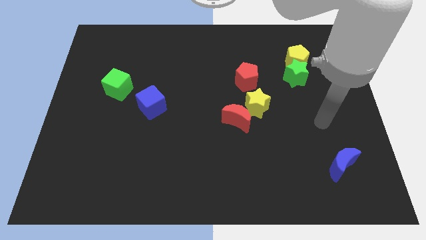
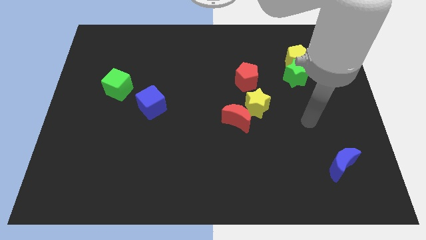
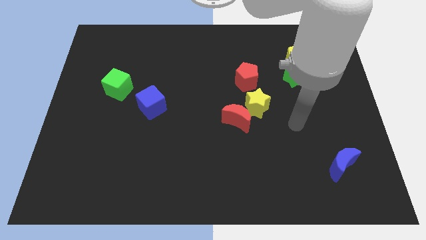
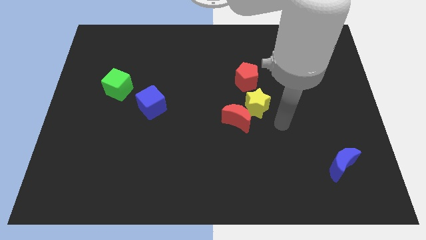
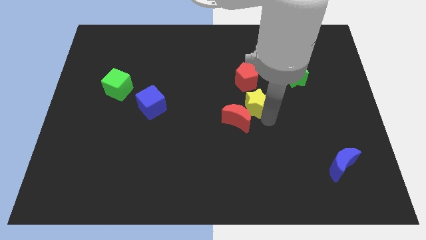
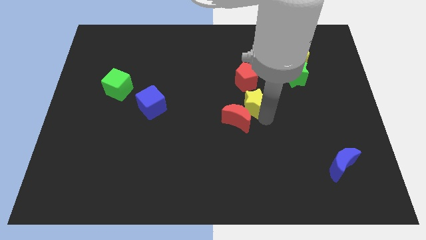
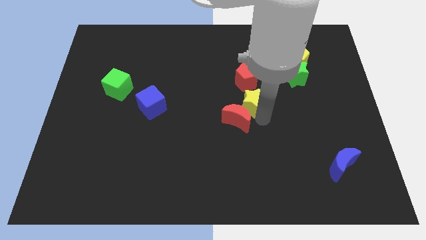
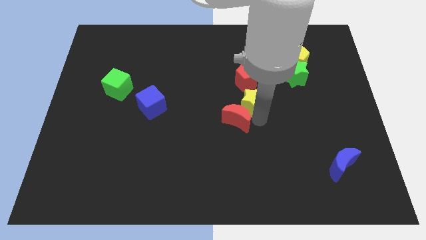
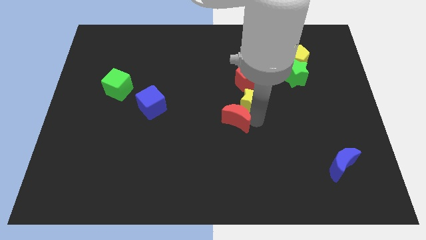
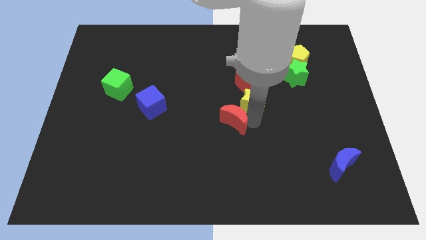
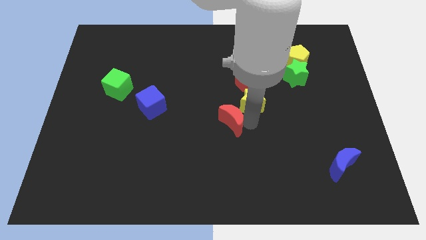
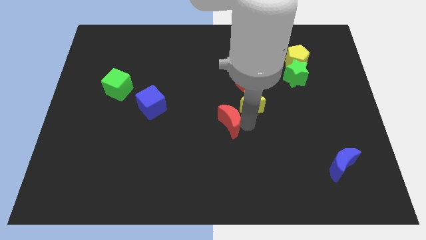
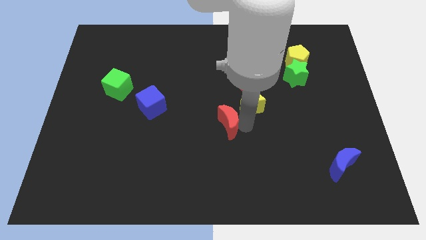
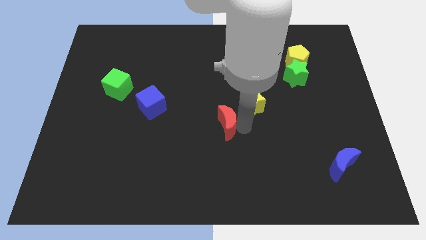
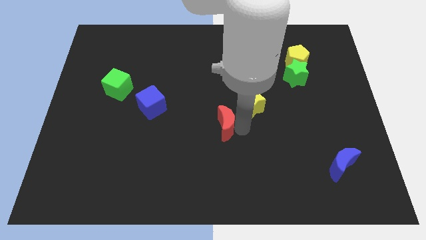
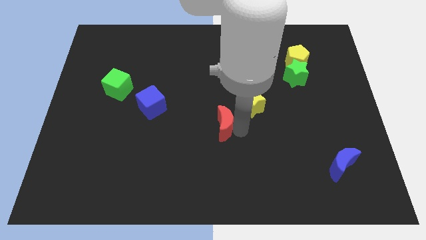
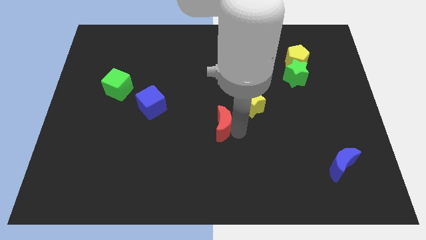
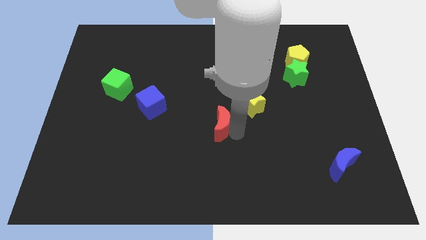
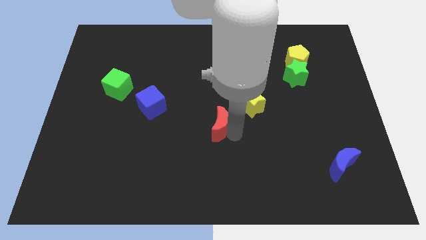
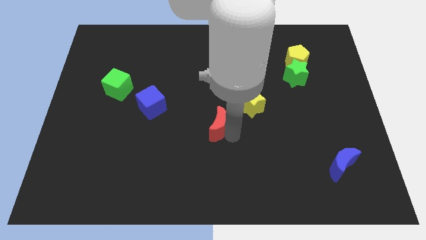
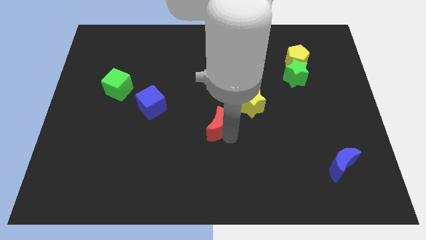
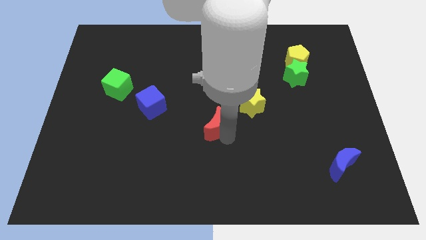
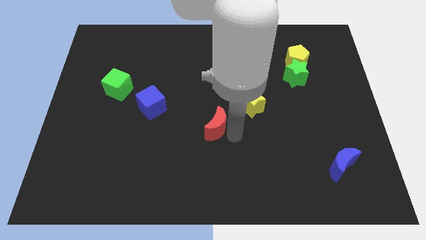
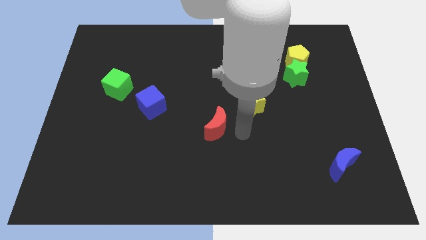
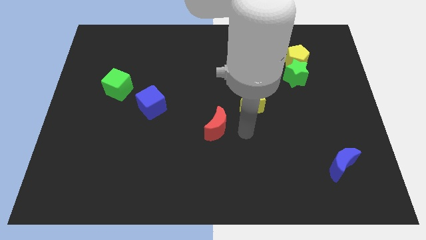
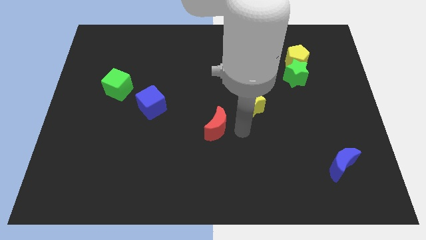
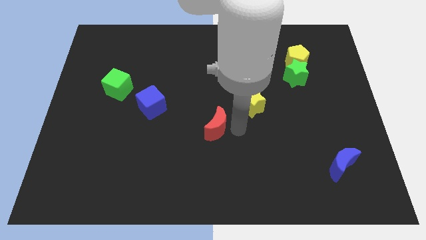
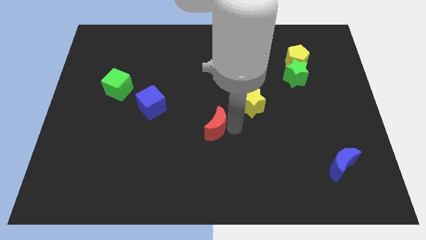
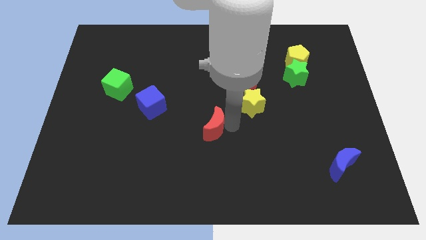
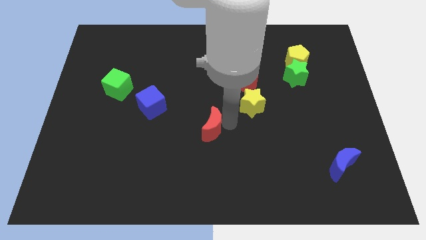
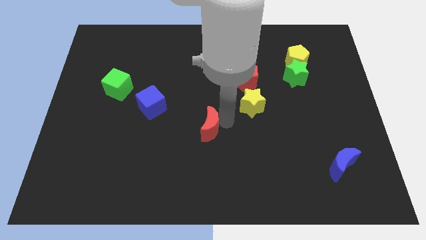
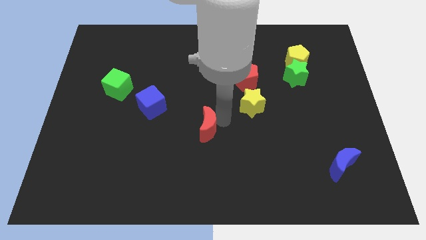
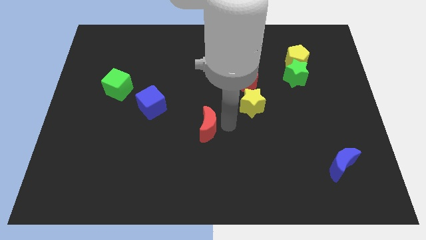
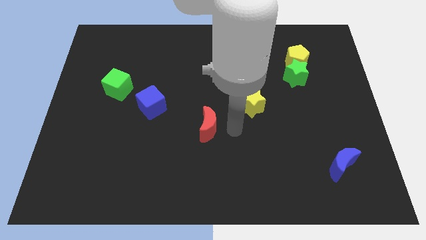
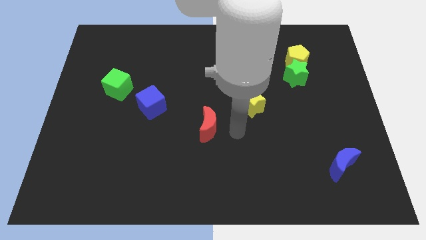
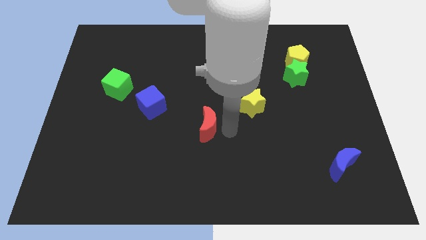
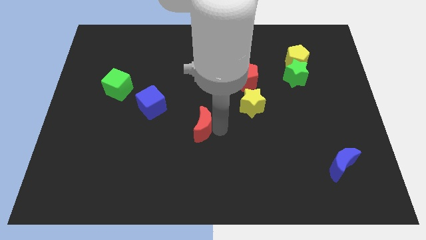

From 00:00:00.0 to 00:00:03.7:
push the red moon a little bit to the left

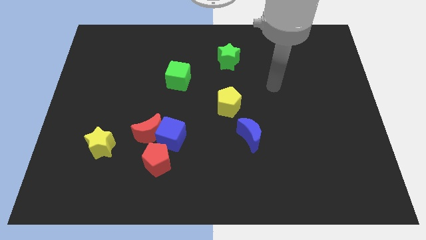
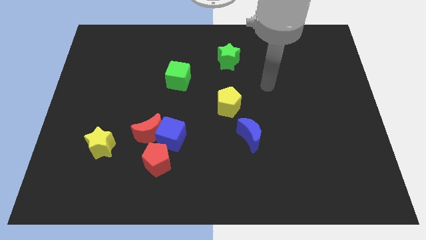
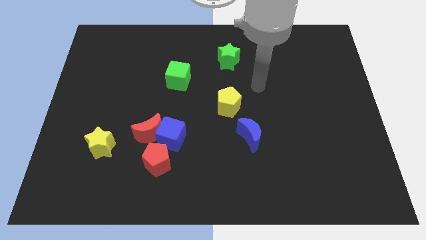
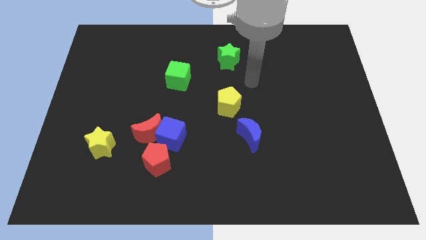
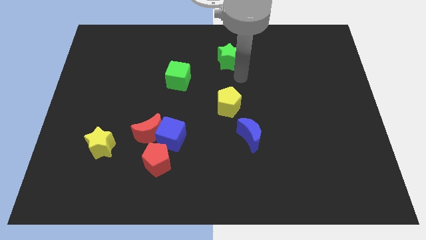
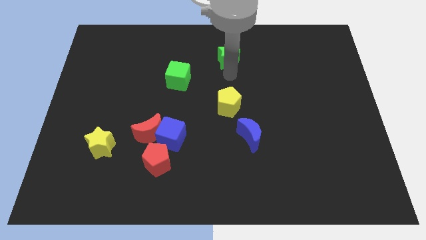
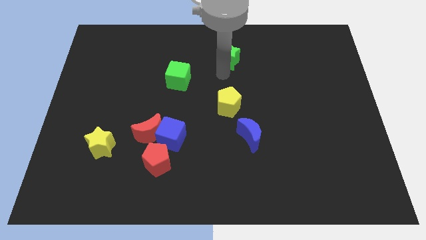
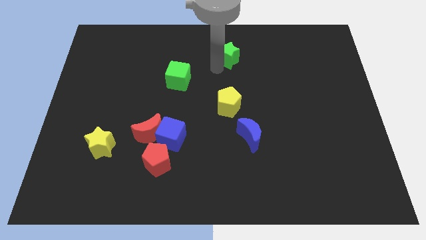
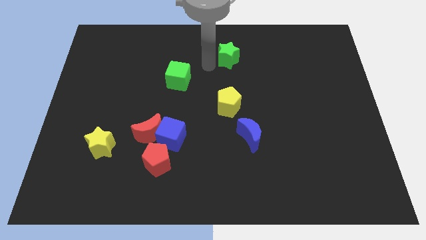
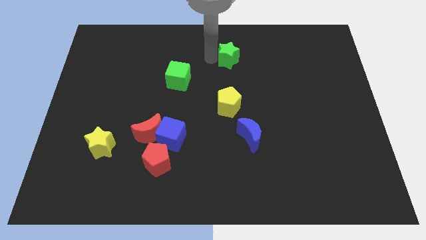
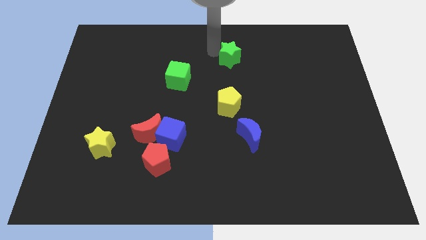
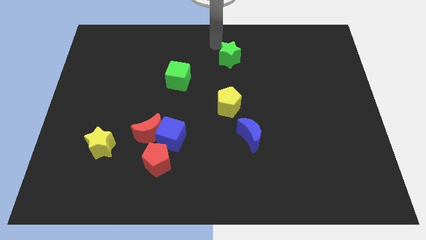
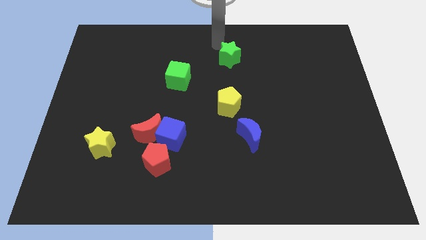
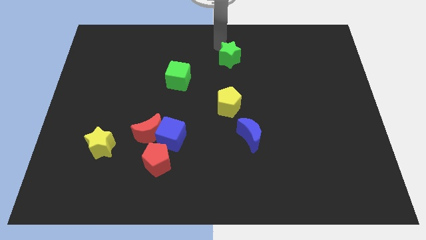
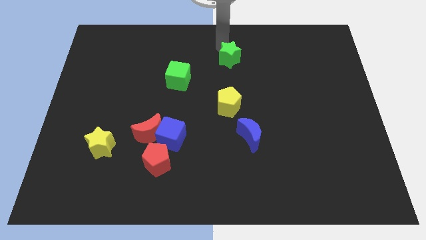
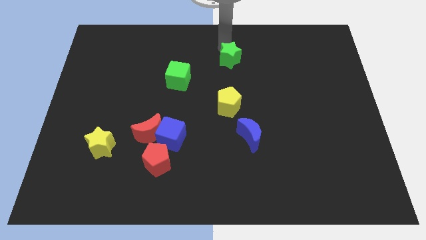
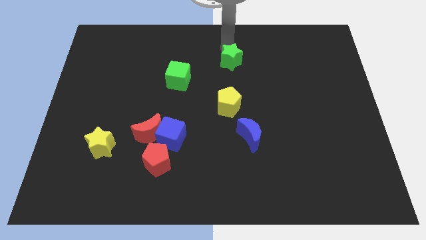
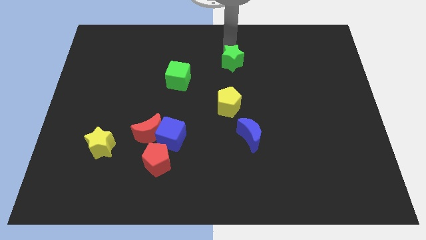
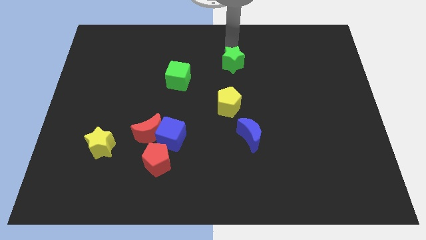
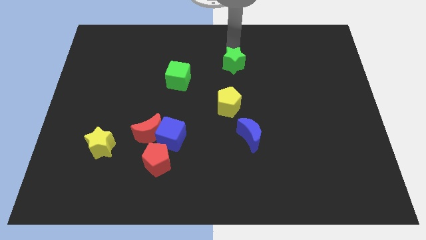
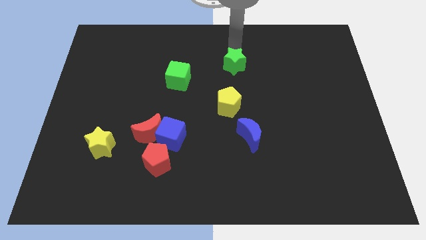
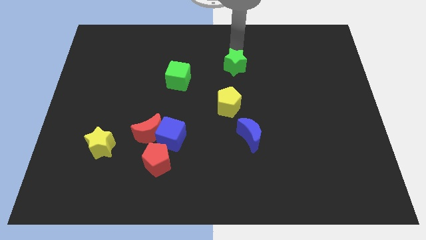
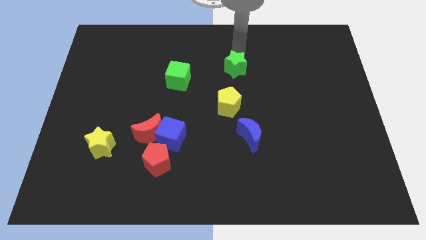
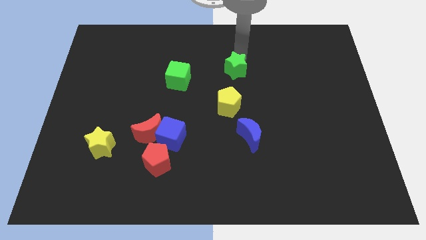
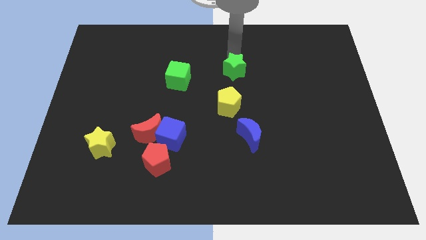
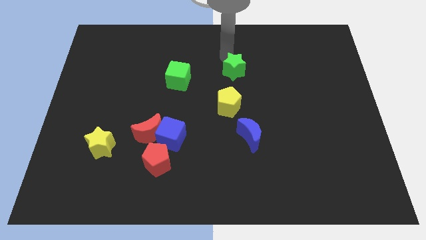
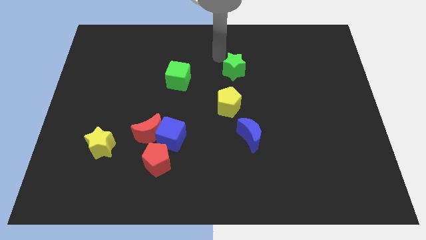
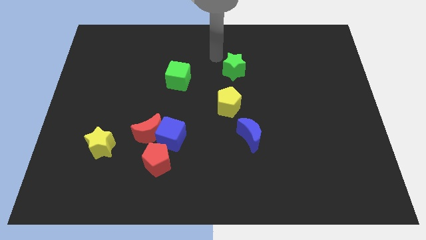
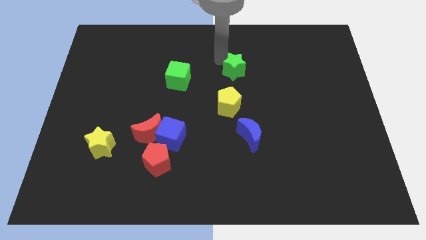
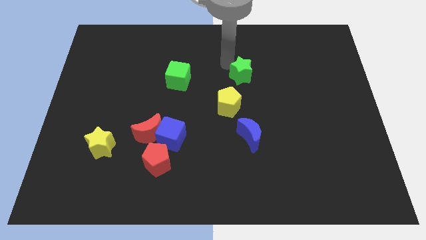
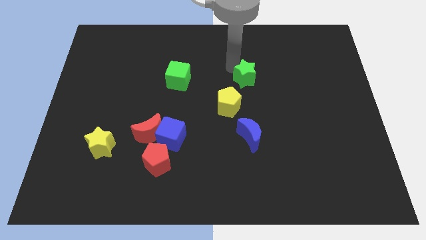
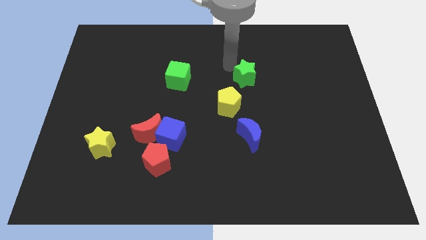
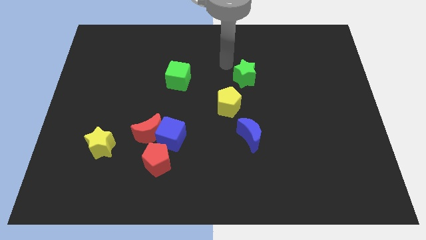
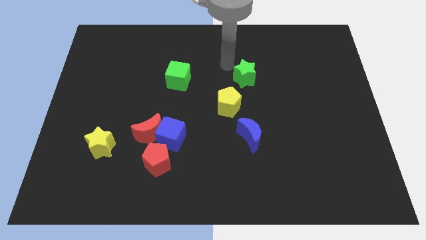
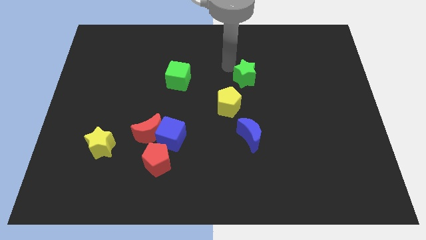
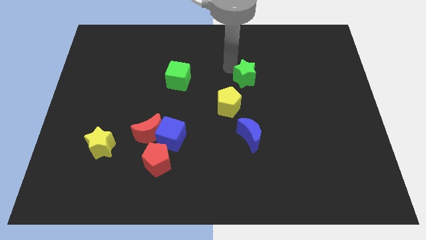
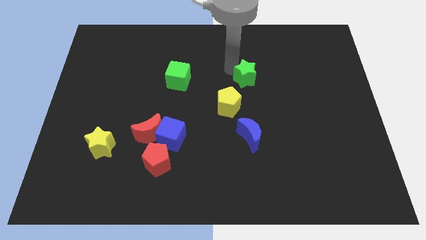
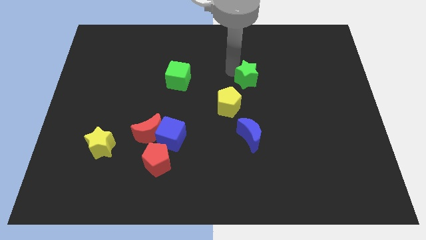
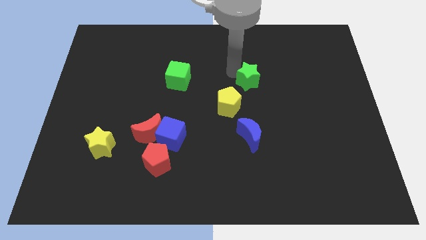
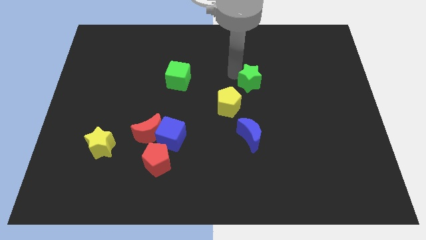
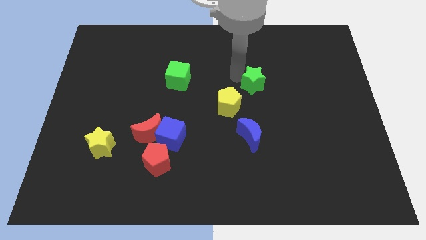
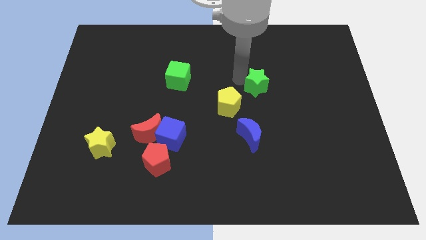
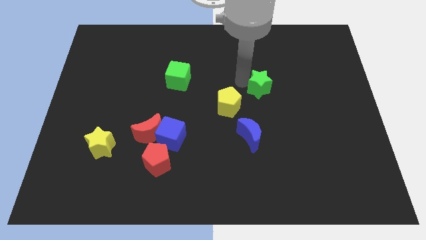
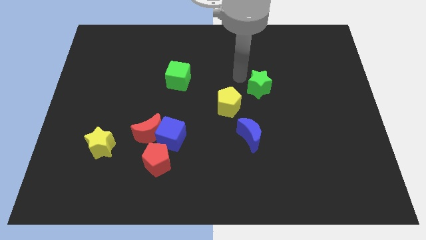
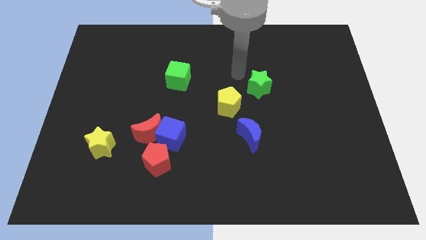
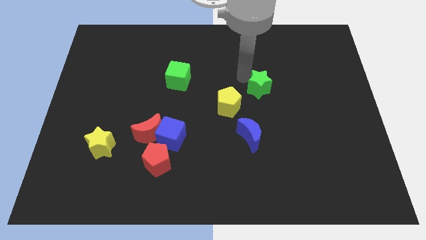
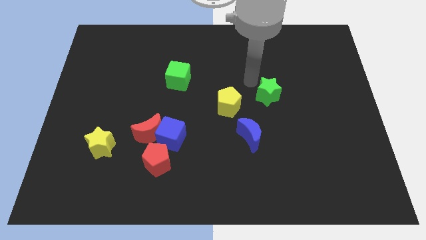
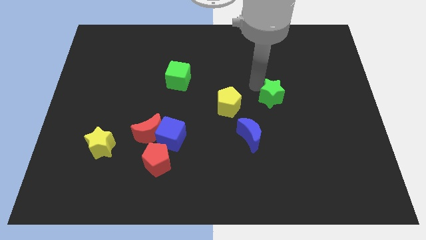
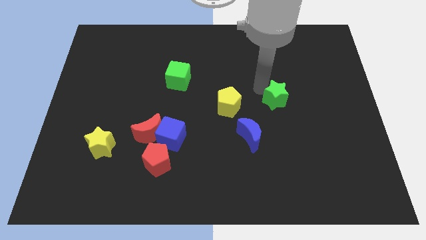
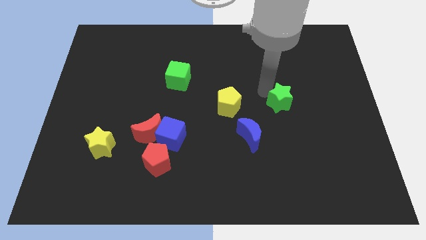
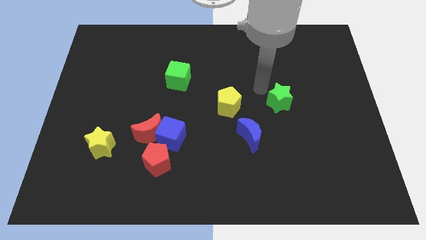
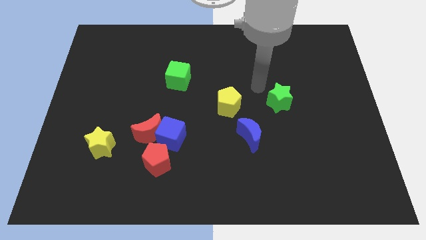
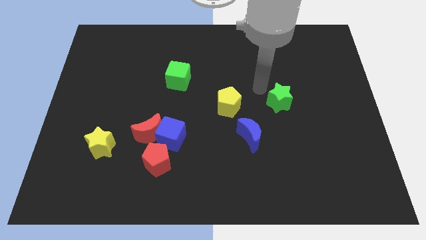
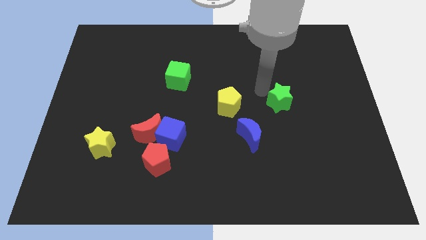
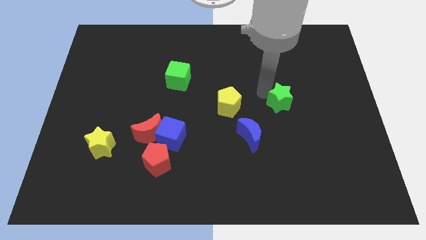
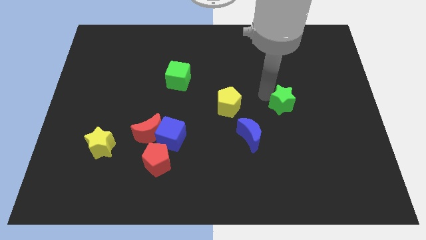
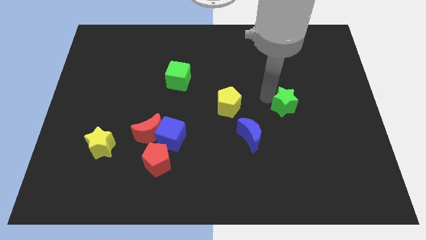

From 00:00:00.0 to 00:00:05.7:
push the green star down and to the right diagonally
